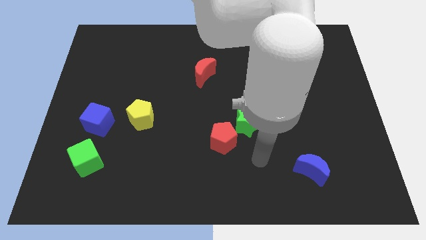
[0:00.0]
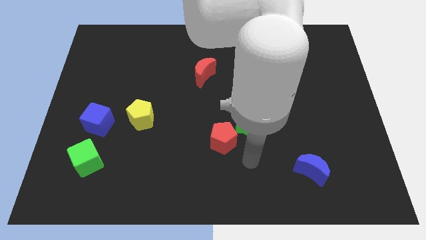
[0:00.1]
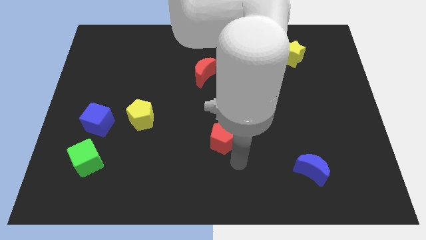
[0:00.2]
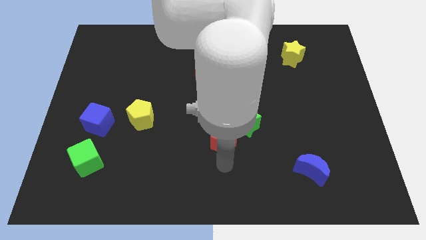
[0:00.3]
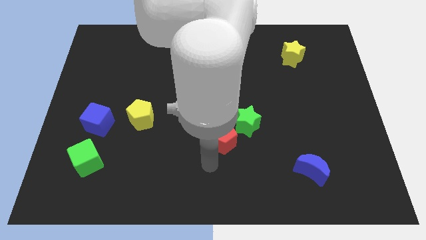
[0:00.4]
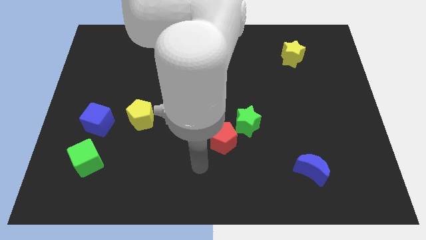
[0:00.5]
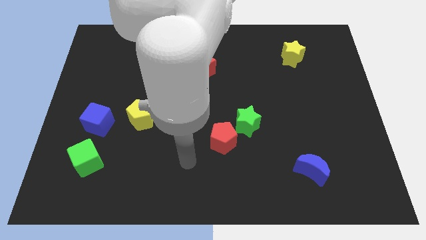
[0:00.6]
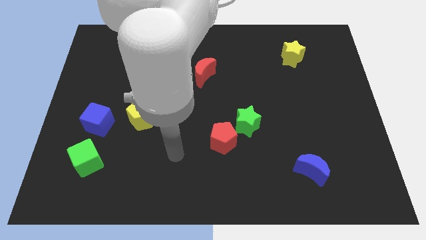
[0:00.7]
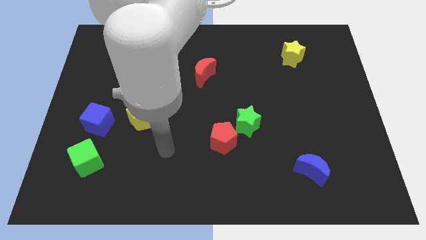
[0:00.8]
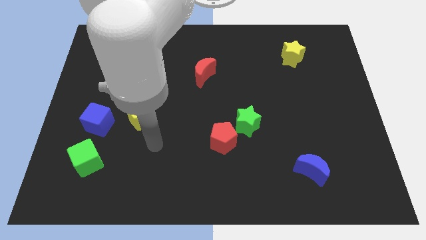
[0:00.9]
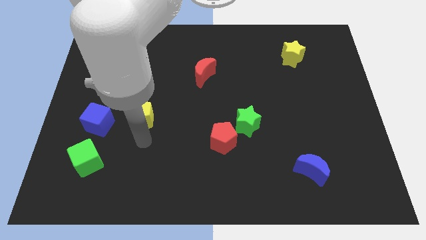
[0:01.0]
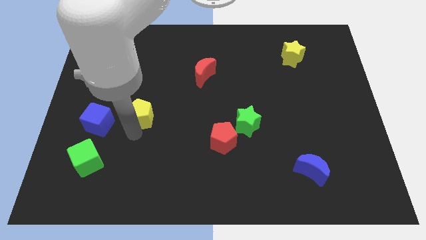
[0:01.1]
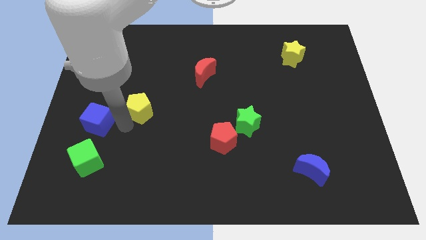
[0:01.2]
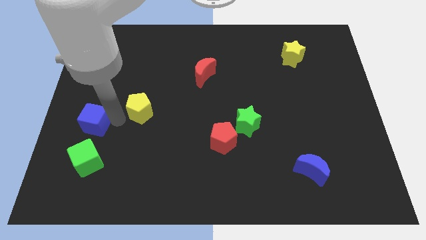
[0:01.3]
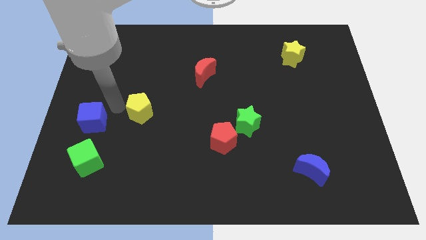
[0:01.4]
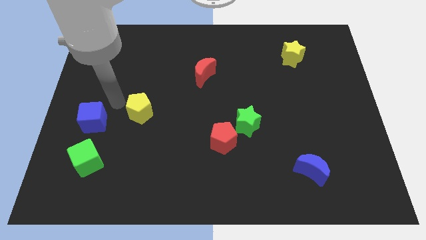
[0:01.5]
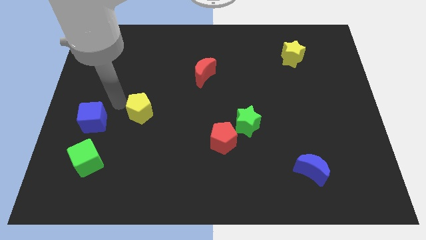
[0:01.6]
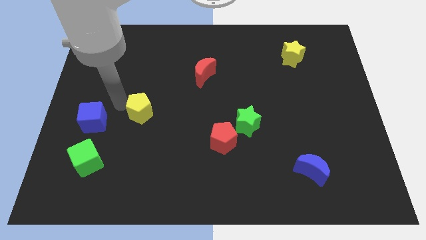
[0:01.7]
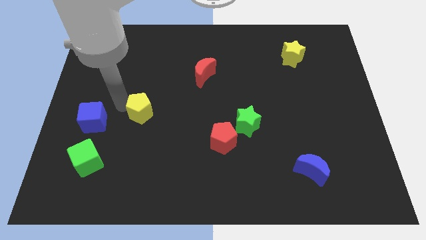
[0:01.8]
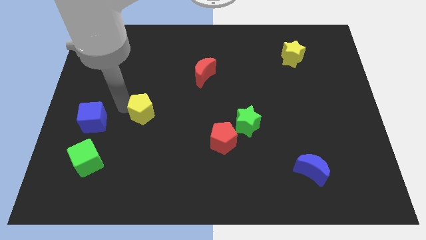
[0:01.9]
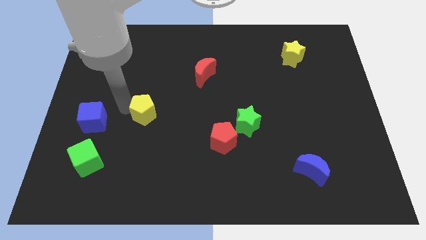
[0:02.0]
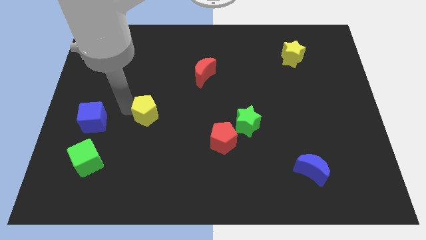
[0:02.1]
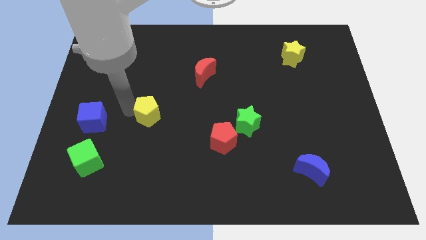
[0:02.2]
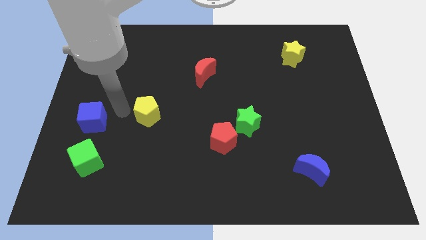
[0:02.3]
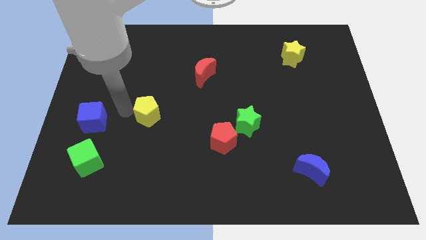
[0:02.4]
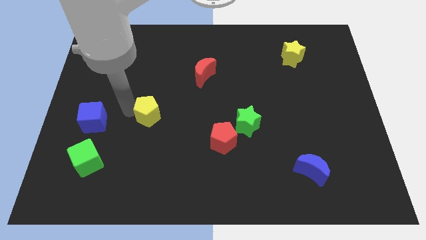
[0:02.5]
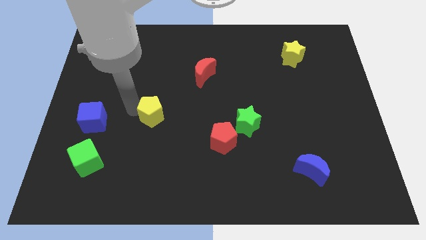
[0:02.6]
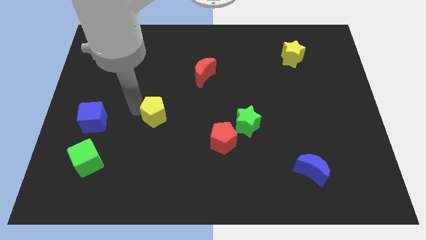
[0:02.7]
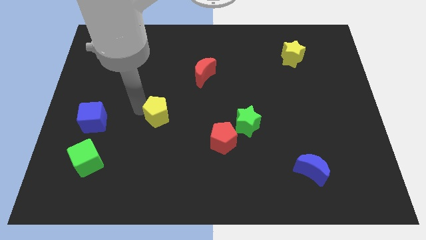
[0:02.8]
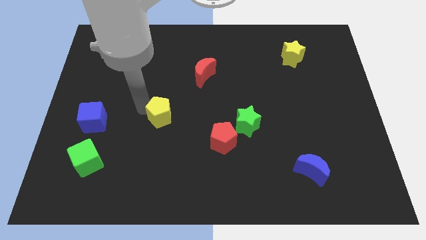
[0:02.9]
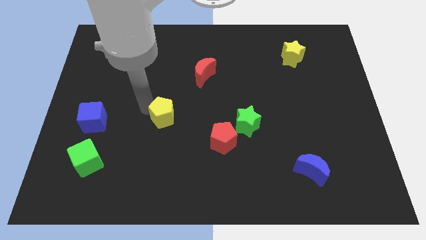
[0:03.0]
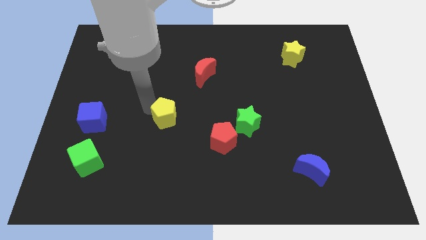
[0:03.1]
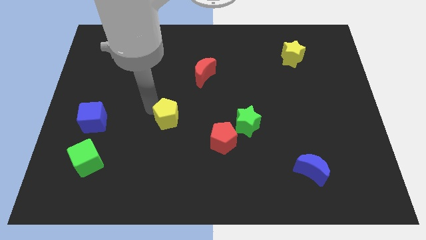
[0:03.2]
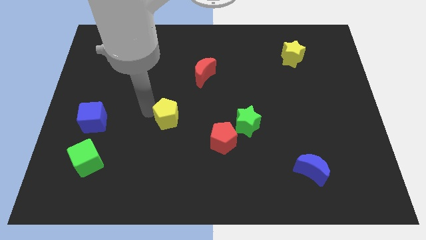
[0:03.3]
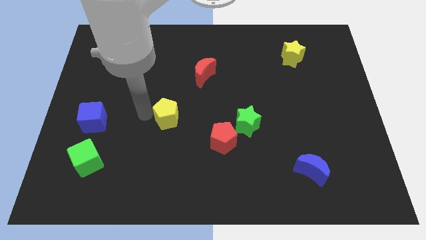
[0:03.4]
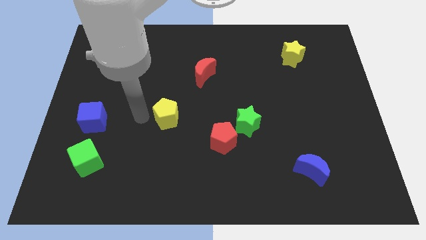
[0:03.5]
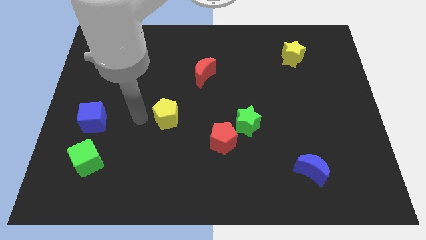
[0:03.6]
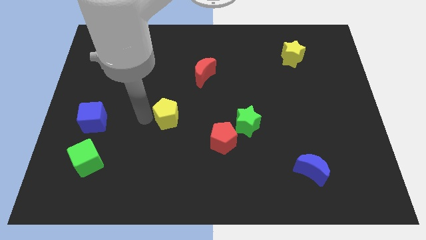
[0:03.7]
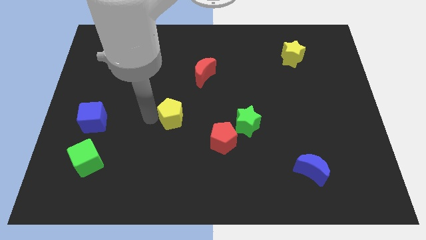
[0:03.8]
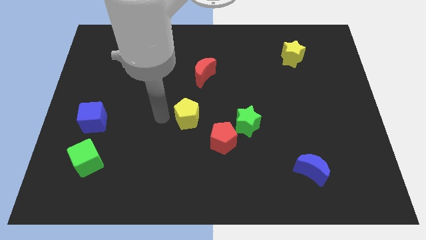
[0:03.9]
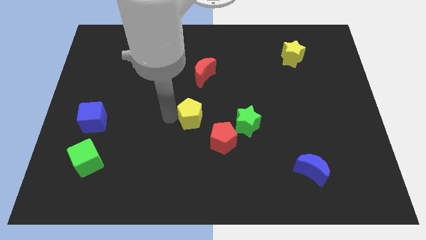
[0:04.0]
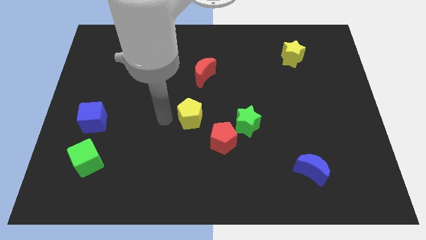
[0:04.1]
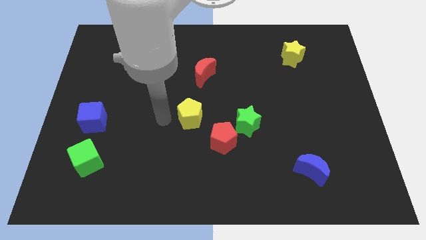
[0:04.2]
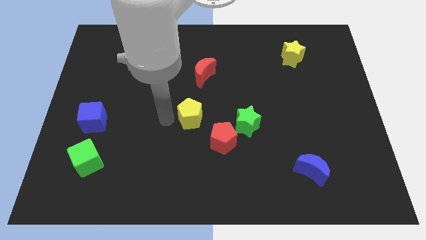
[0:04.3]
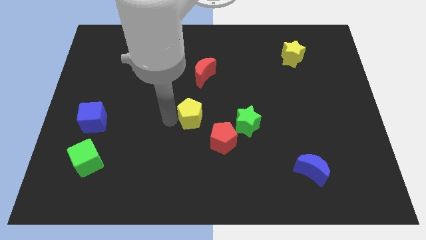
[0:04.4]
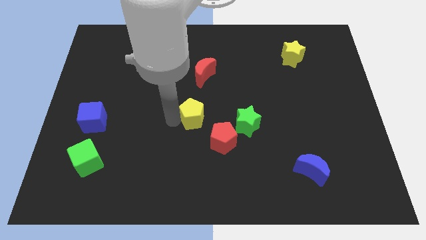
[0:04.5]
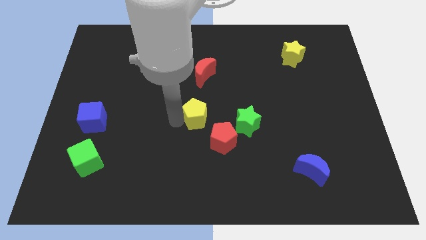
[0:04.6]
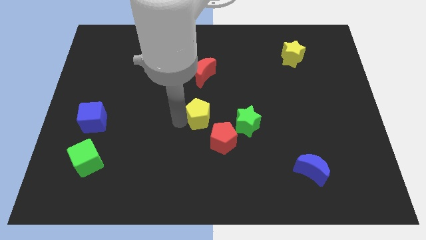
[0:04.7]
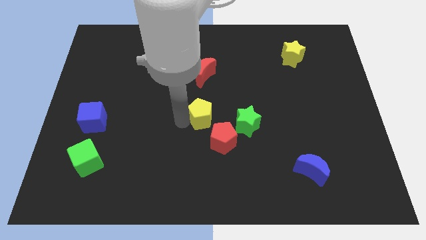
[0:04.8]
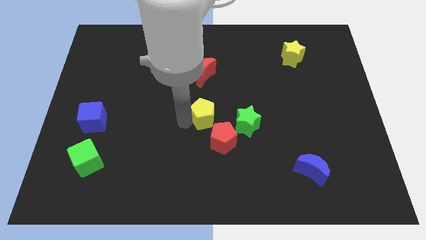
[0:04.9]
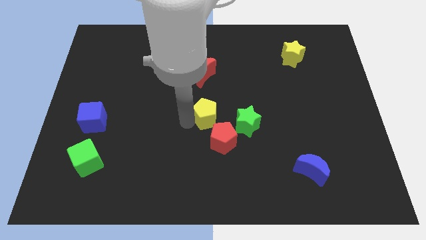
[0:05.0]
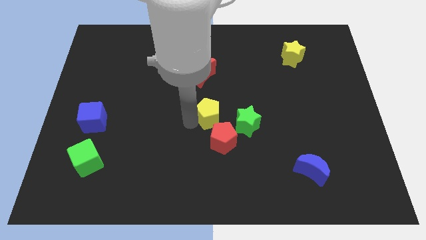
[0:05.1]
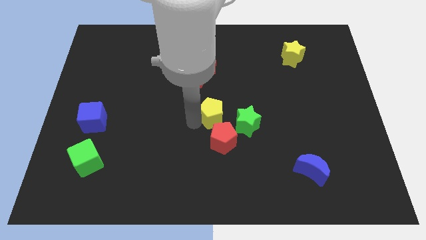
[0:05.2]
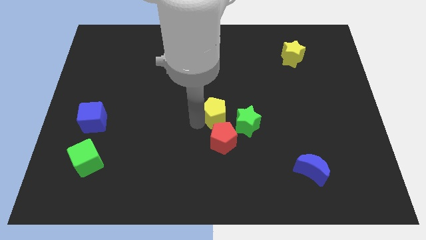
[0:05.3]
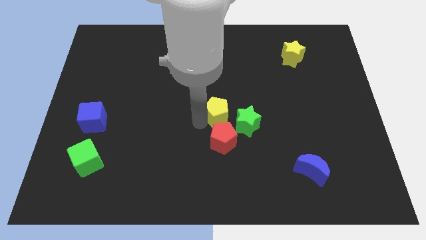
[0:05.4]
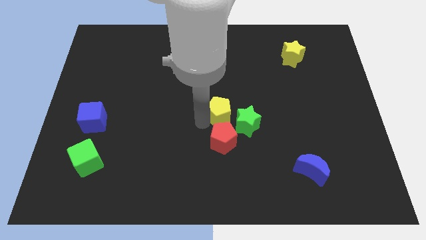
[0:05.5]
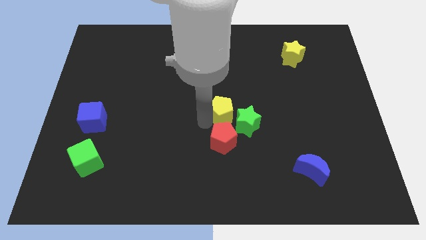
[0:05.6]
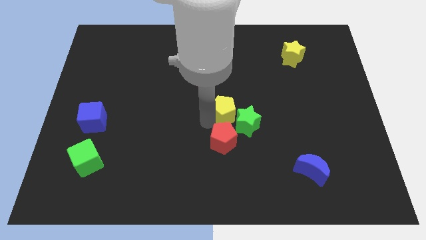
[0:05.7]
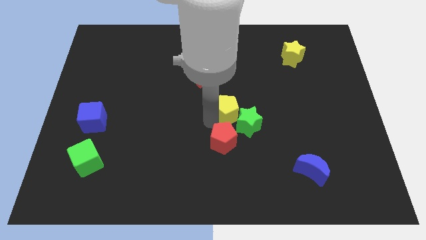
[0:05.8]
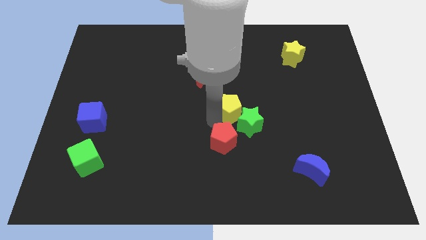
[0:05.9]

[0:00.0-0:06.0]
push the yellow pentagon right

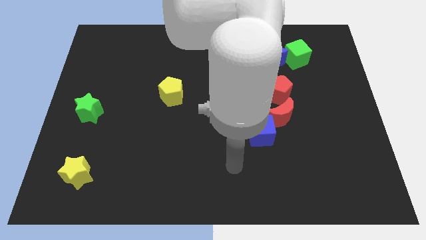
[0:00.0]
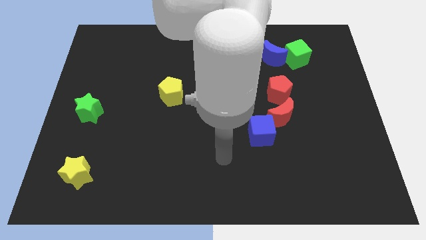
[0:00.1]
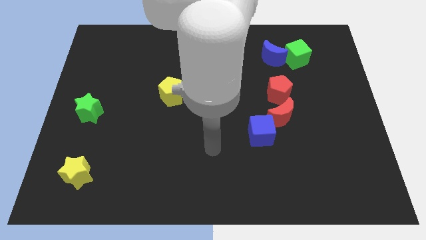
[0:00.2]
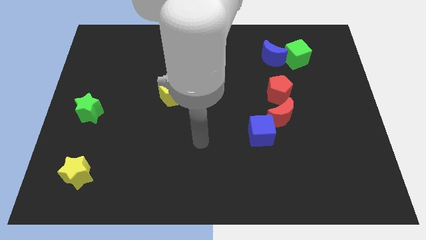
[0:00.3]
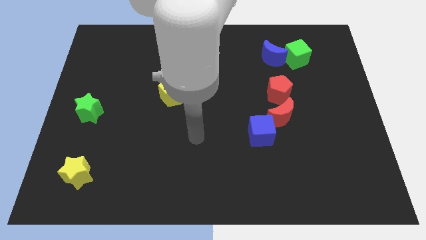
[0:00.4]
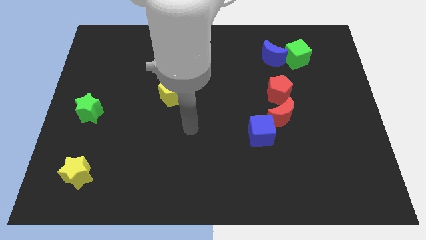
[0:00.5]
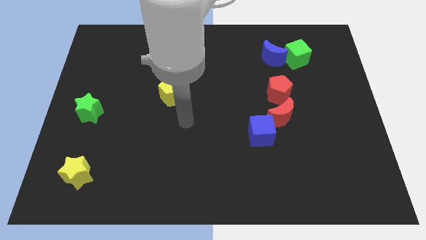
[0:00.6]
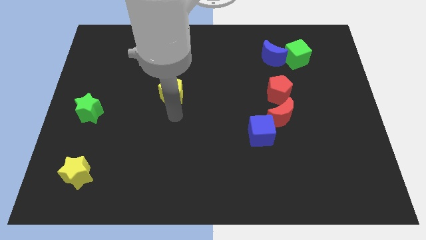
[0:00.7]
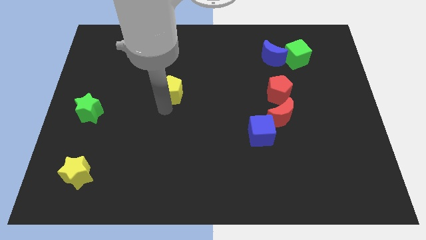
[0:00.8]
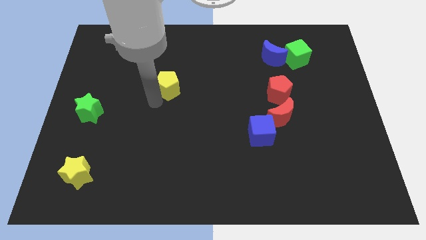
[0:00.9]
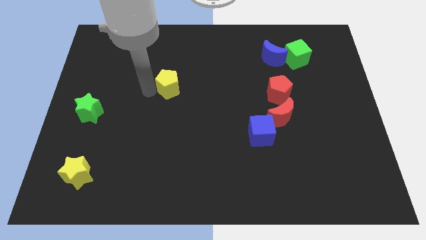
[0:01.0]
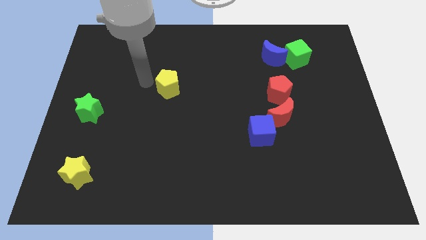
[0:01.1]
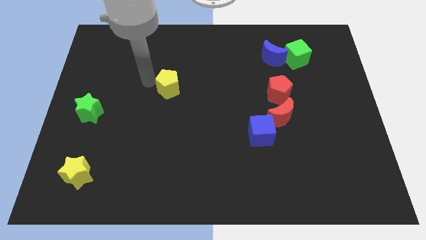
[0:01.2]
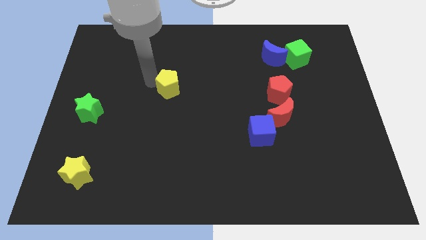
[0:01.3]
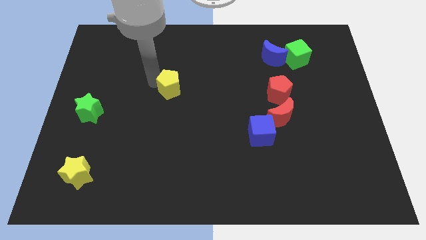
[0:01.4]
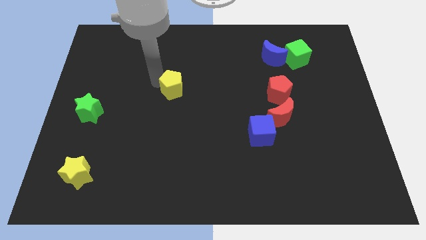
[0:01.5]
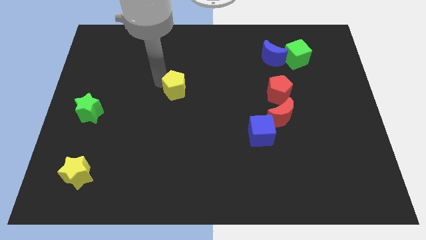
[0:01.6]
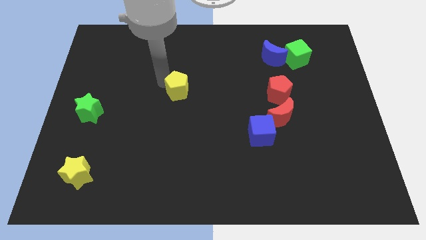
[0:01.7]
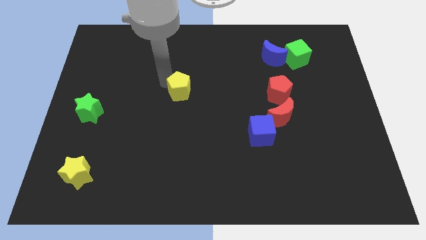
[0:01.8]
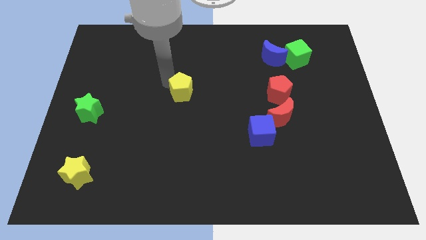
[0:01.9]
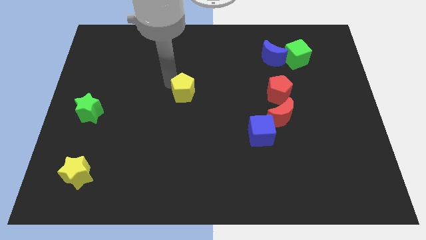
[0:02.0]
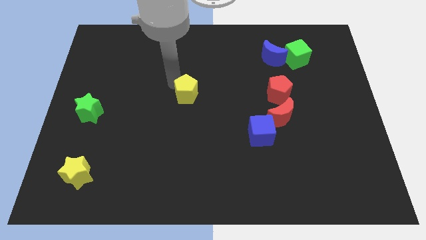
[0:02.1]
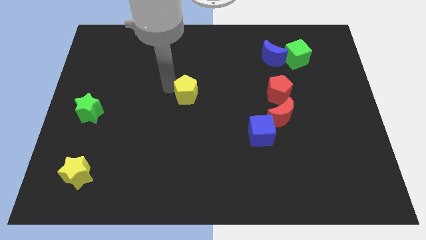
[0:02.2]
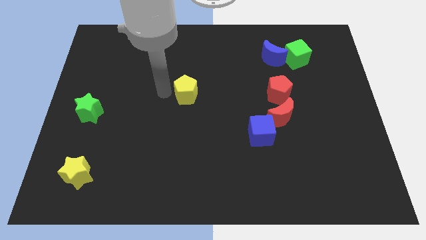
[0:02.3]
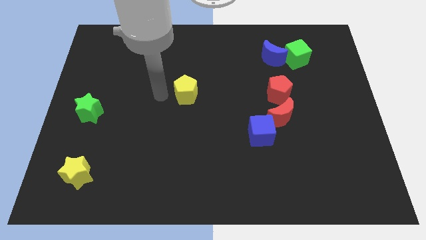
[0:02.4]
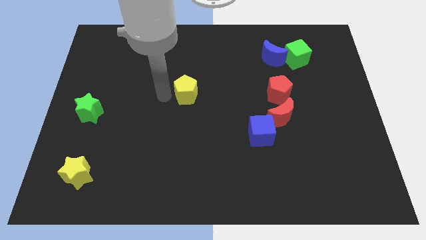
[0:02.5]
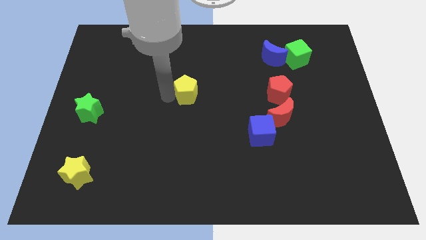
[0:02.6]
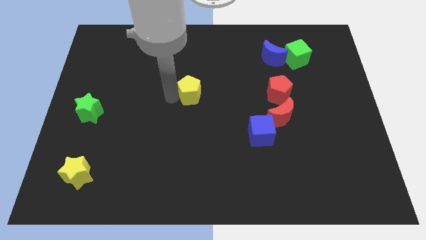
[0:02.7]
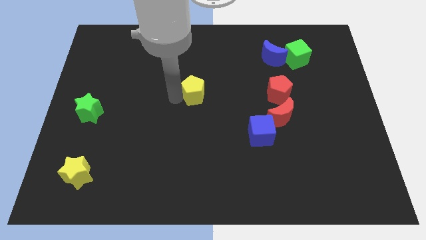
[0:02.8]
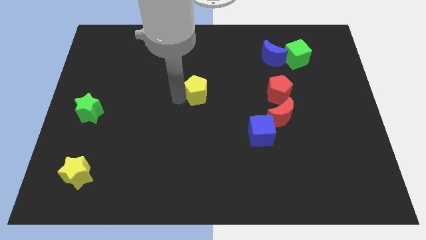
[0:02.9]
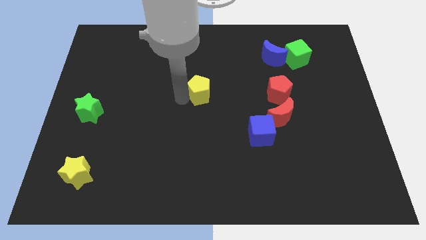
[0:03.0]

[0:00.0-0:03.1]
slide the yellow pentagon a little to the right
